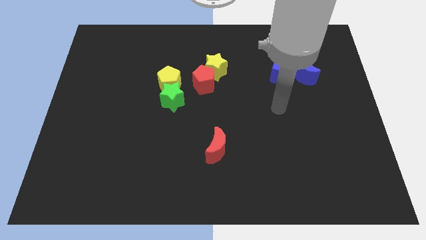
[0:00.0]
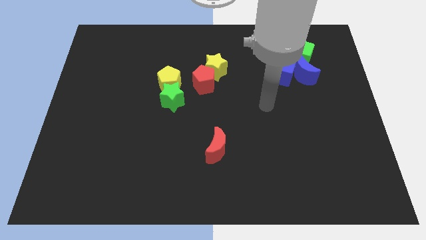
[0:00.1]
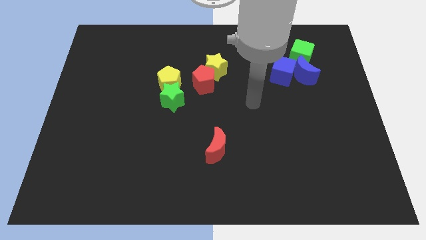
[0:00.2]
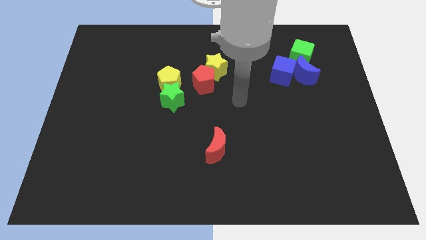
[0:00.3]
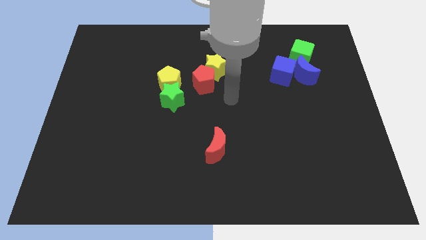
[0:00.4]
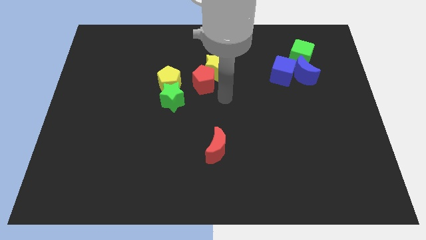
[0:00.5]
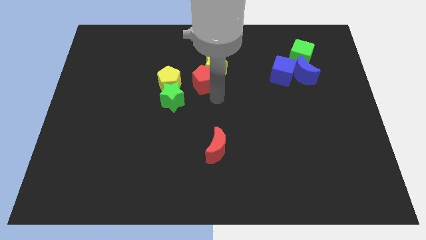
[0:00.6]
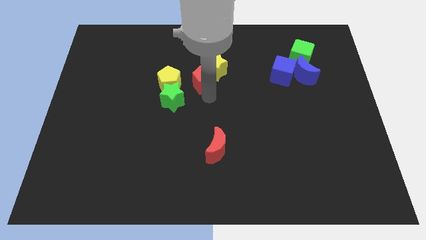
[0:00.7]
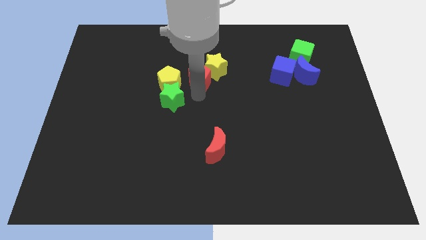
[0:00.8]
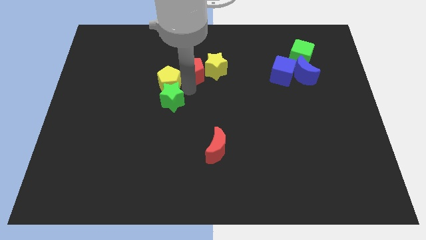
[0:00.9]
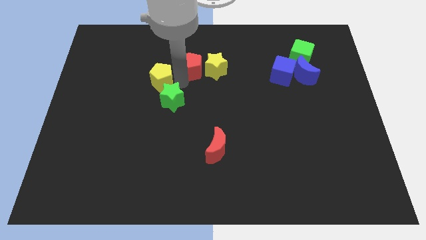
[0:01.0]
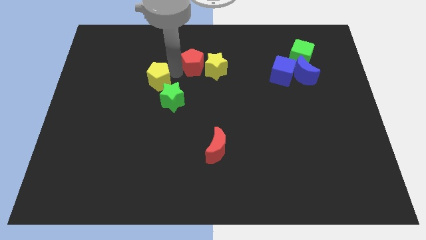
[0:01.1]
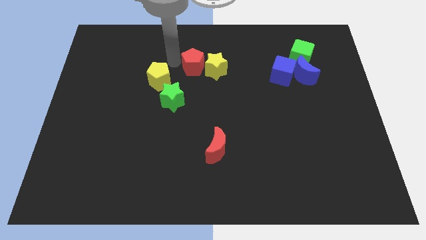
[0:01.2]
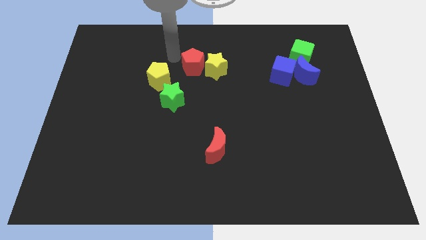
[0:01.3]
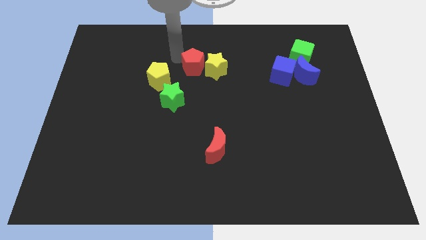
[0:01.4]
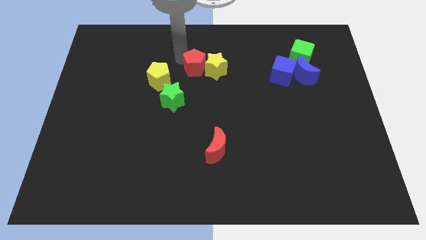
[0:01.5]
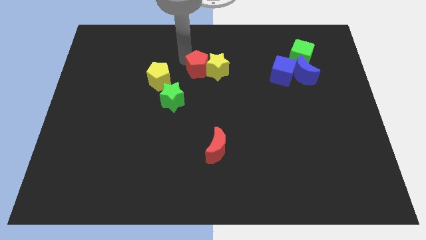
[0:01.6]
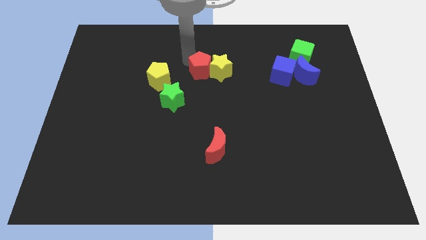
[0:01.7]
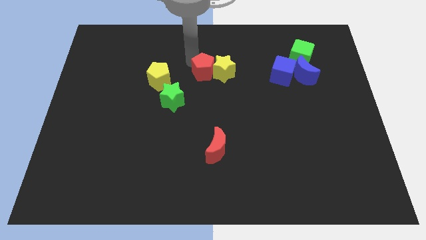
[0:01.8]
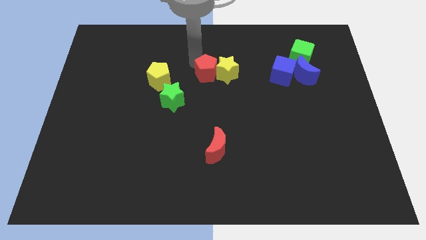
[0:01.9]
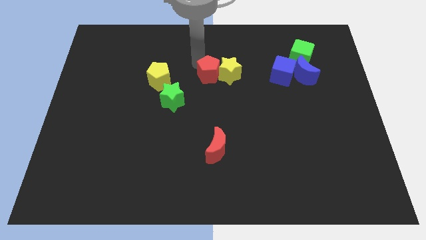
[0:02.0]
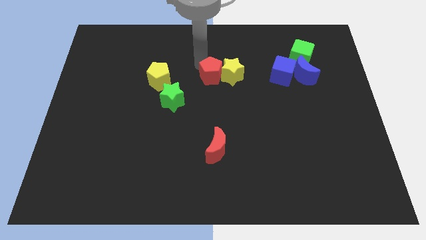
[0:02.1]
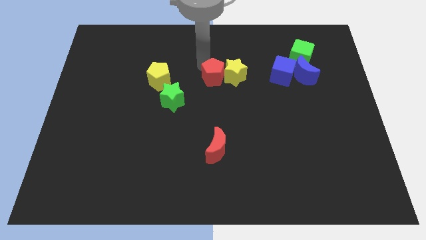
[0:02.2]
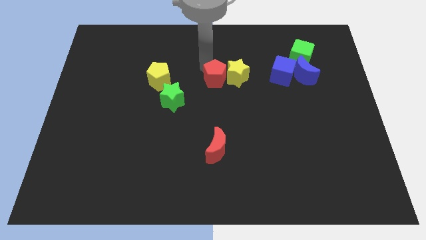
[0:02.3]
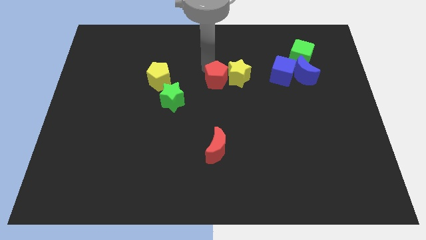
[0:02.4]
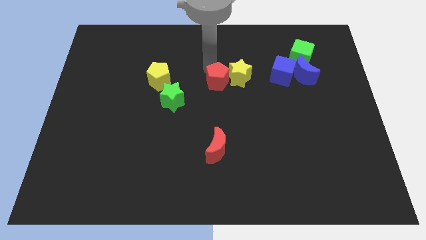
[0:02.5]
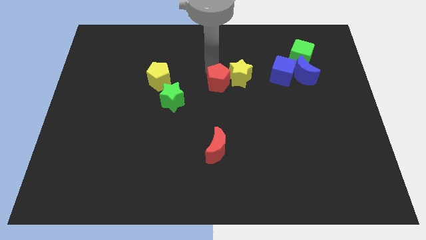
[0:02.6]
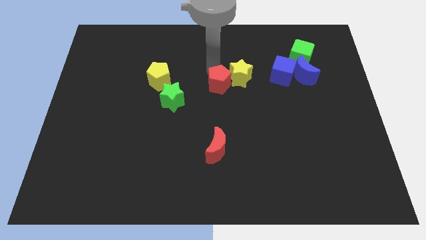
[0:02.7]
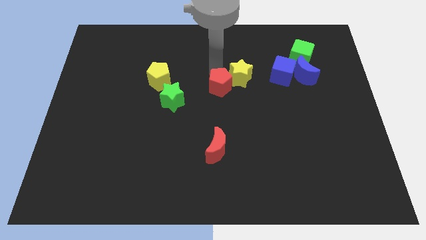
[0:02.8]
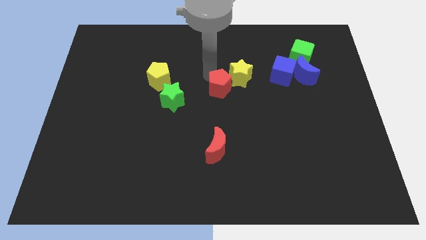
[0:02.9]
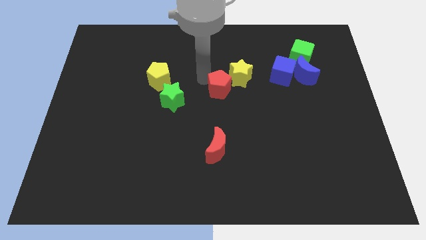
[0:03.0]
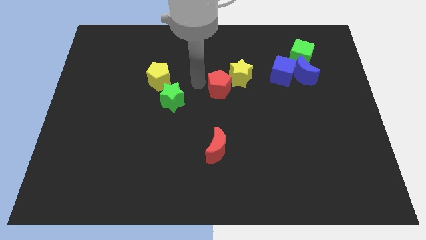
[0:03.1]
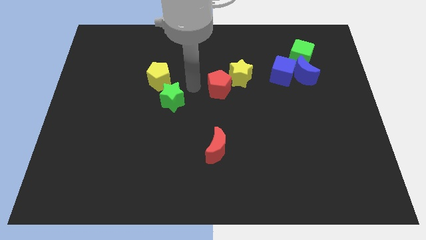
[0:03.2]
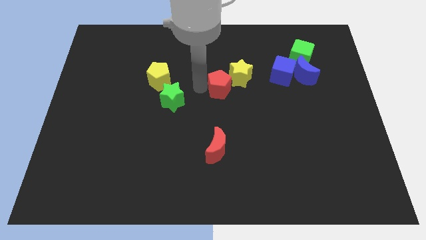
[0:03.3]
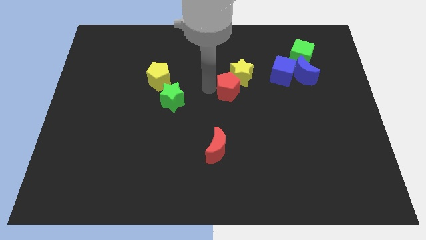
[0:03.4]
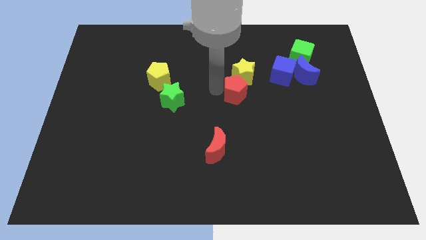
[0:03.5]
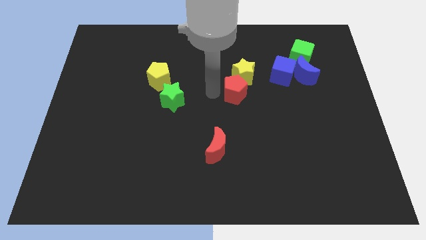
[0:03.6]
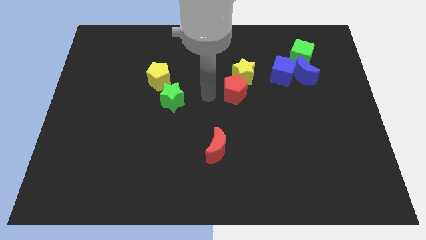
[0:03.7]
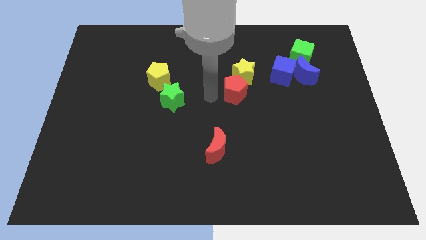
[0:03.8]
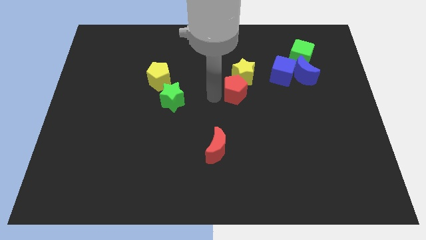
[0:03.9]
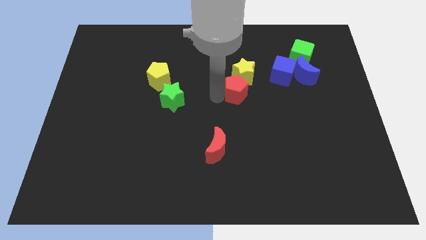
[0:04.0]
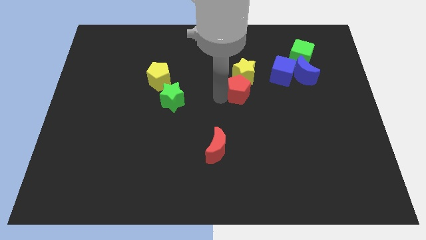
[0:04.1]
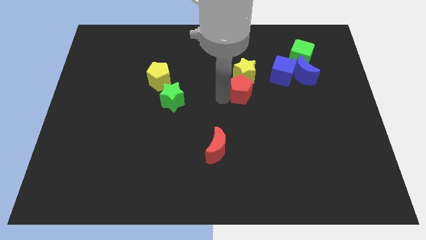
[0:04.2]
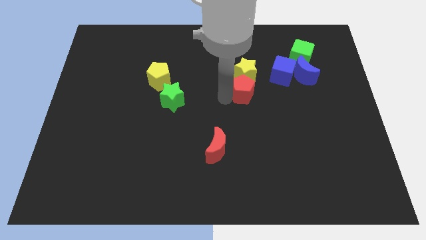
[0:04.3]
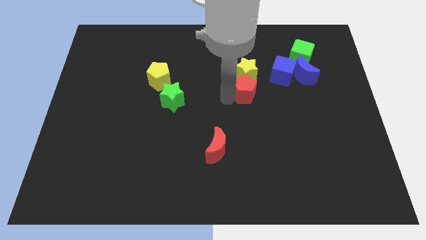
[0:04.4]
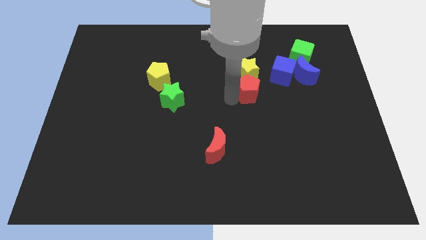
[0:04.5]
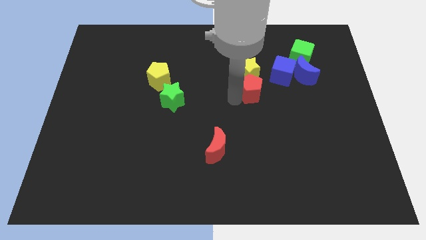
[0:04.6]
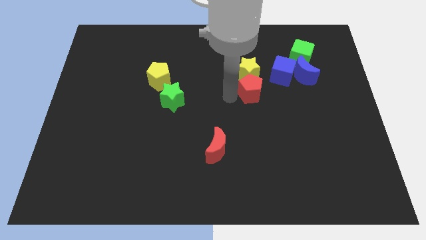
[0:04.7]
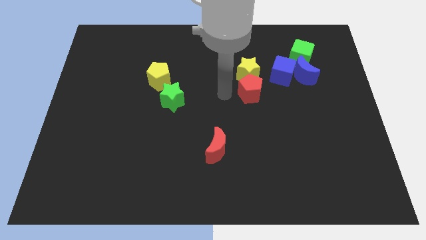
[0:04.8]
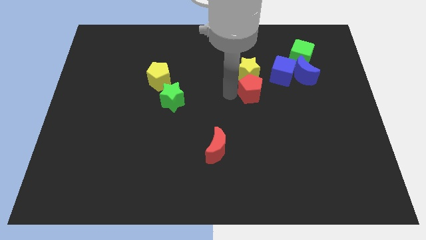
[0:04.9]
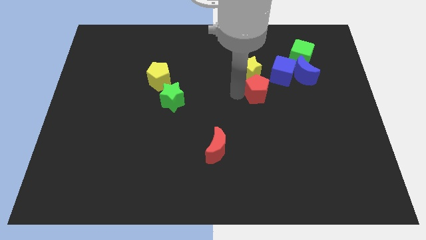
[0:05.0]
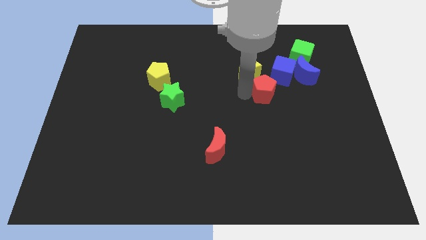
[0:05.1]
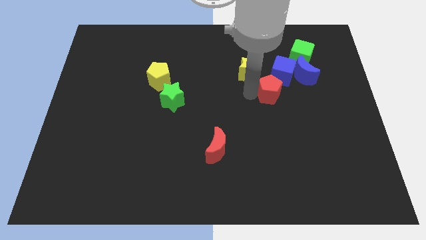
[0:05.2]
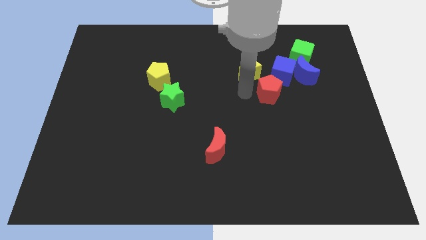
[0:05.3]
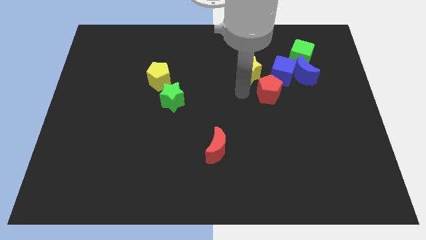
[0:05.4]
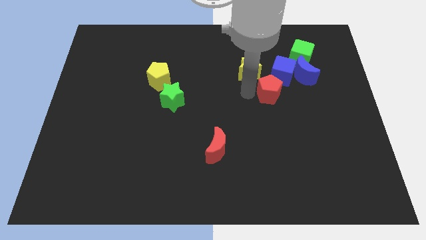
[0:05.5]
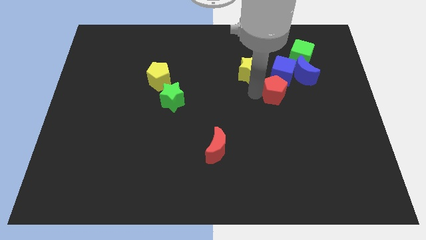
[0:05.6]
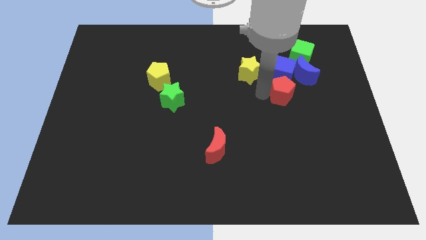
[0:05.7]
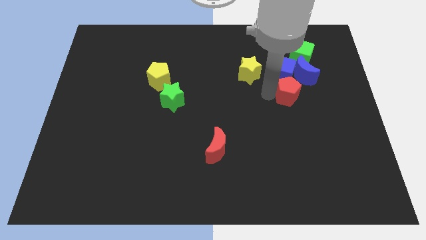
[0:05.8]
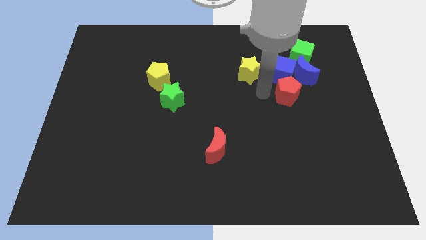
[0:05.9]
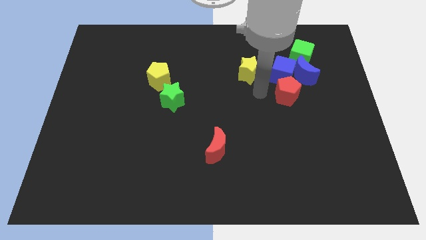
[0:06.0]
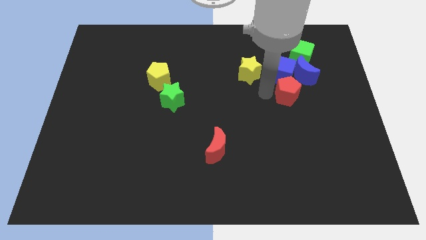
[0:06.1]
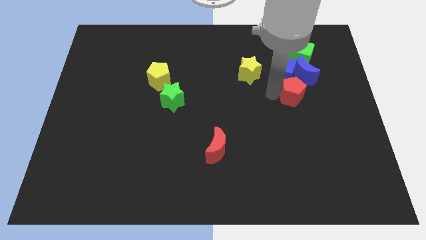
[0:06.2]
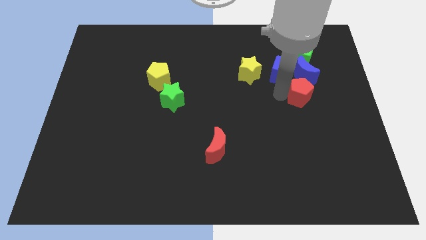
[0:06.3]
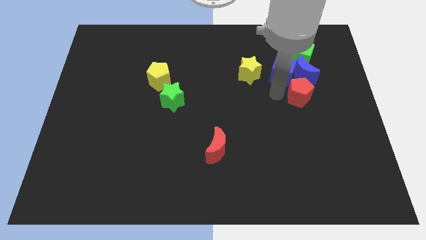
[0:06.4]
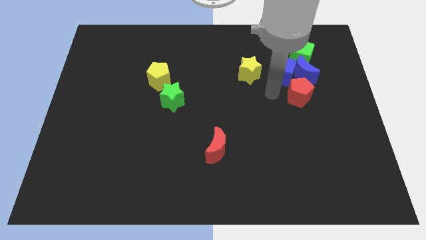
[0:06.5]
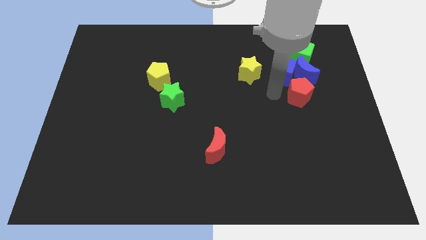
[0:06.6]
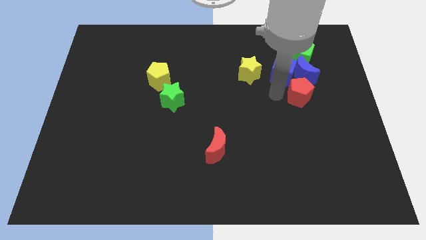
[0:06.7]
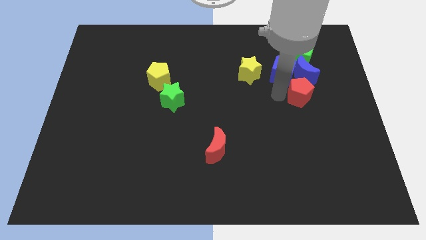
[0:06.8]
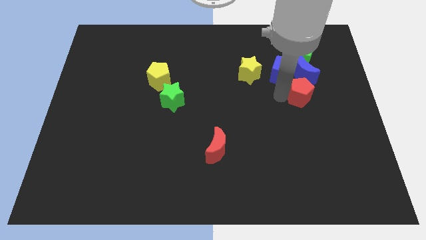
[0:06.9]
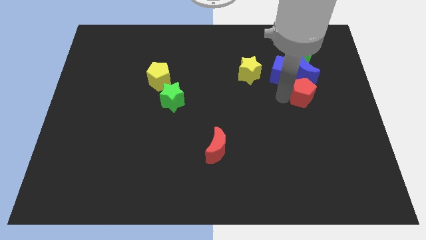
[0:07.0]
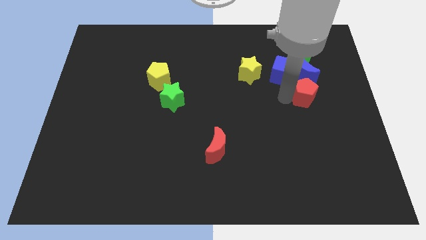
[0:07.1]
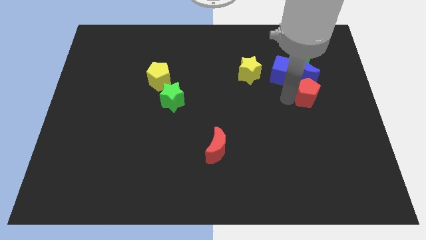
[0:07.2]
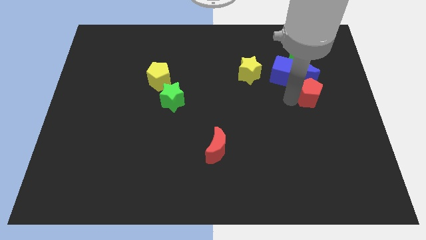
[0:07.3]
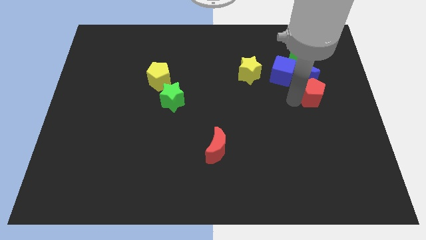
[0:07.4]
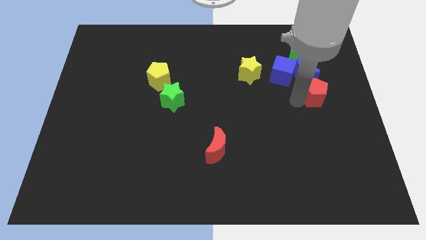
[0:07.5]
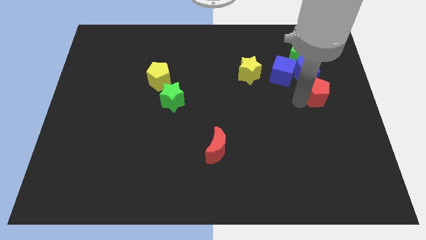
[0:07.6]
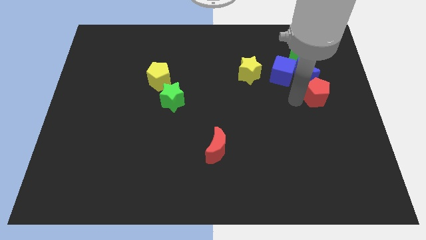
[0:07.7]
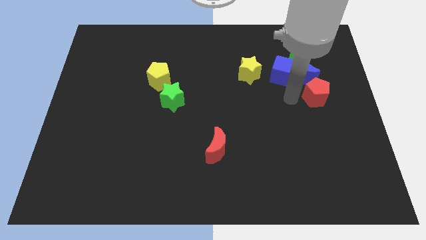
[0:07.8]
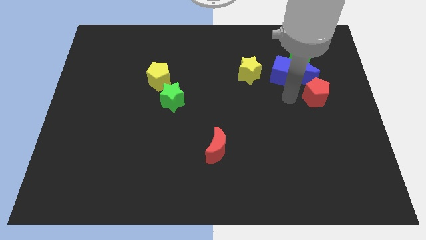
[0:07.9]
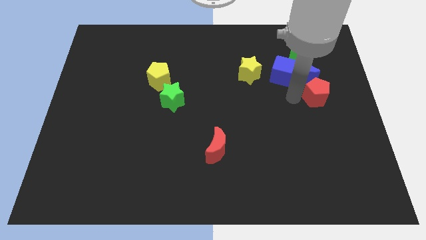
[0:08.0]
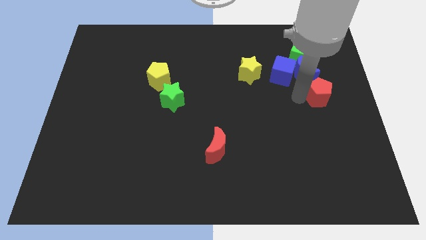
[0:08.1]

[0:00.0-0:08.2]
push the red pentagon to the right side
